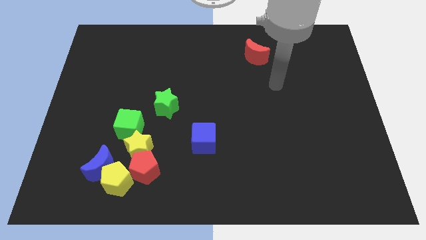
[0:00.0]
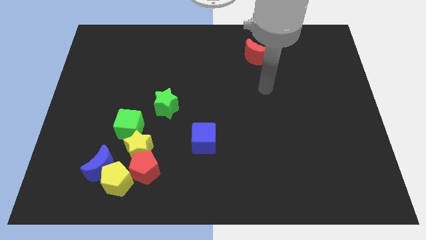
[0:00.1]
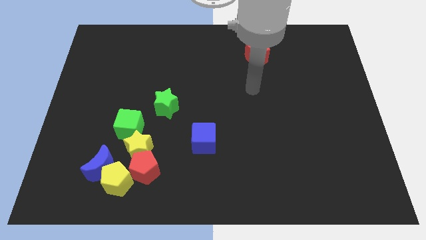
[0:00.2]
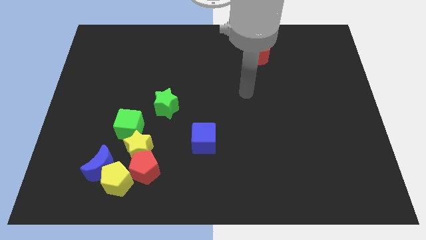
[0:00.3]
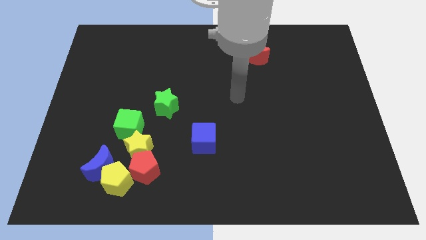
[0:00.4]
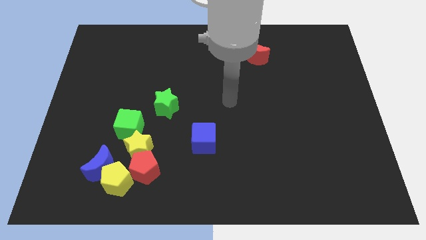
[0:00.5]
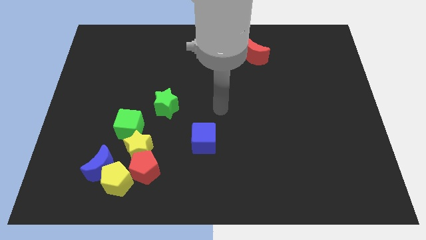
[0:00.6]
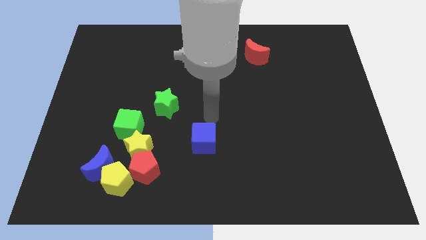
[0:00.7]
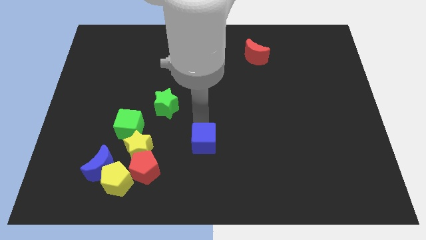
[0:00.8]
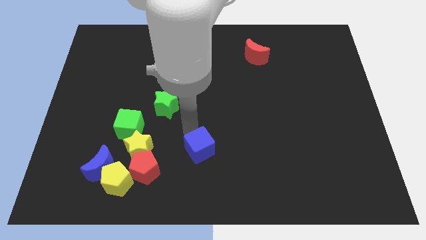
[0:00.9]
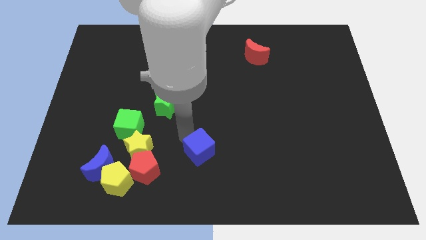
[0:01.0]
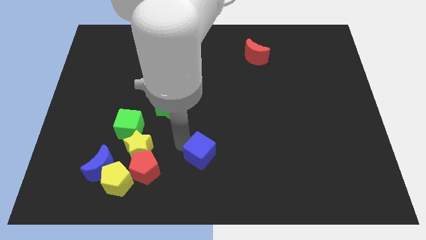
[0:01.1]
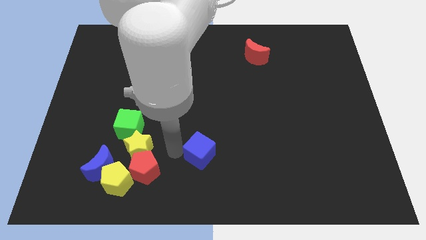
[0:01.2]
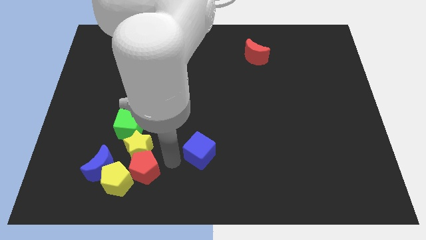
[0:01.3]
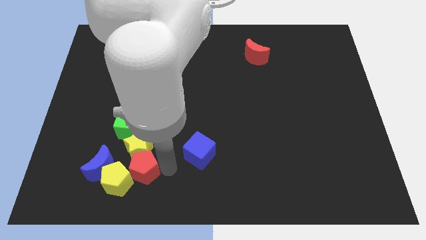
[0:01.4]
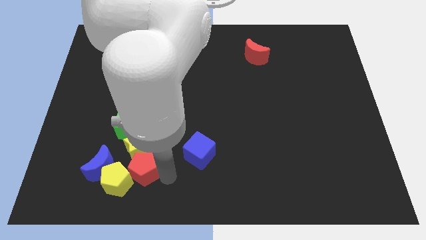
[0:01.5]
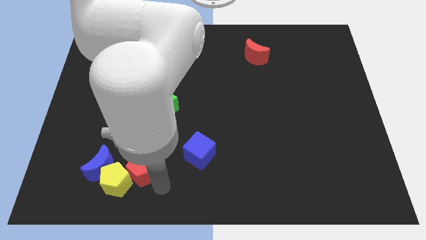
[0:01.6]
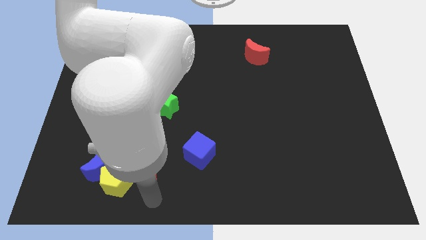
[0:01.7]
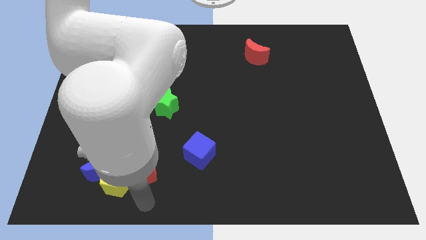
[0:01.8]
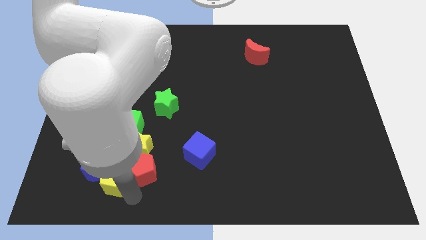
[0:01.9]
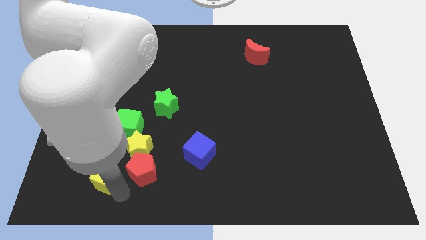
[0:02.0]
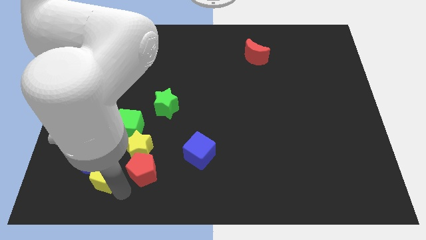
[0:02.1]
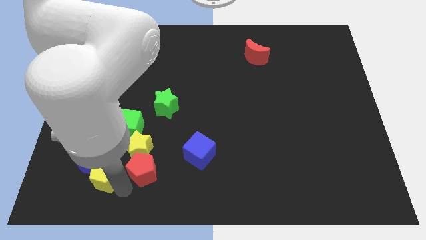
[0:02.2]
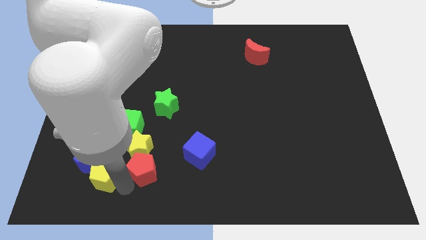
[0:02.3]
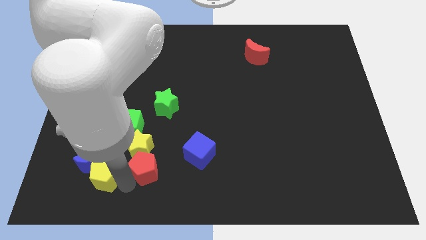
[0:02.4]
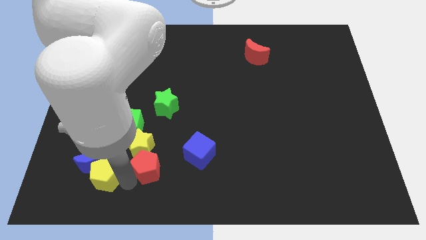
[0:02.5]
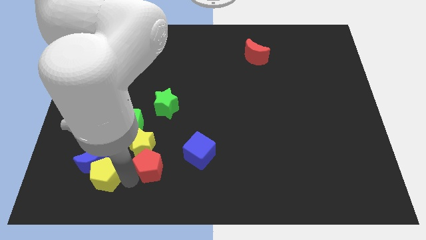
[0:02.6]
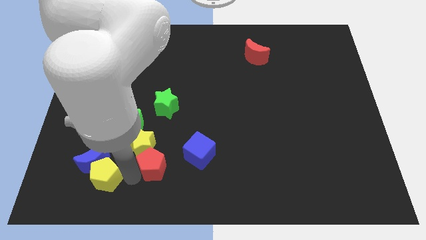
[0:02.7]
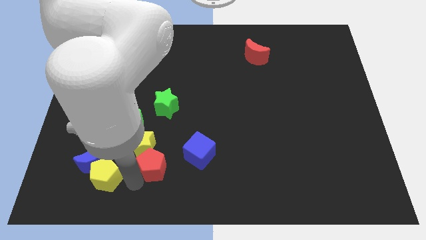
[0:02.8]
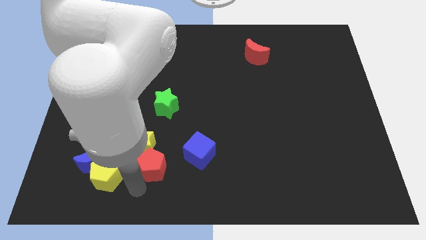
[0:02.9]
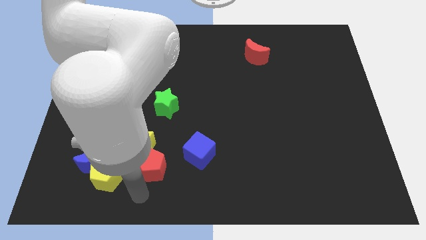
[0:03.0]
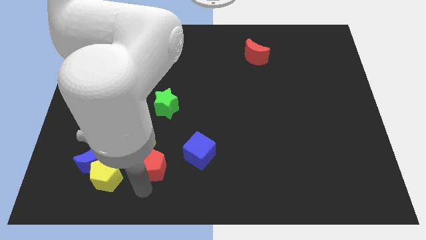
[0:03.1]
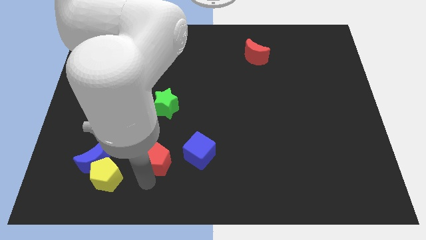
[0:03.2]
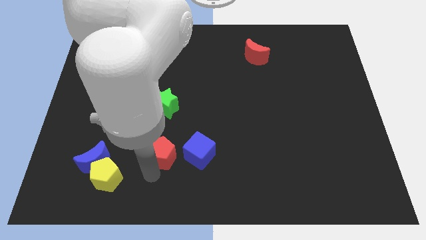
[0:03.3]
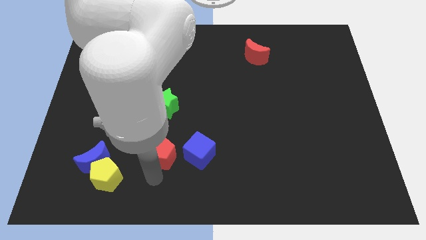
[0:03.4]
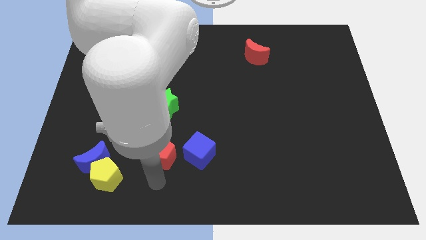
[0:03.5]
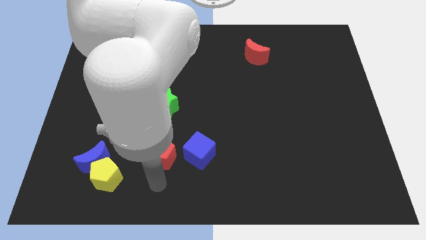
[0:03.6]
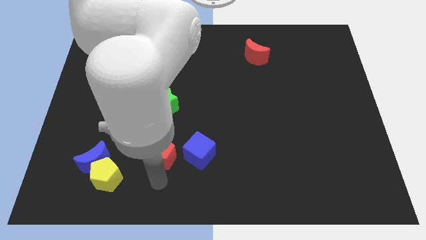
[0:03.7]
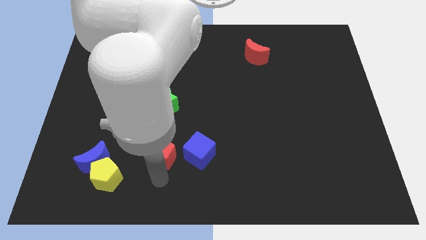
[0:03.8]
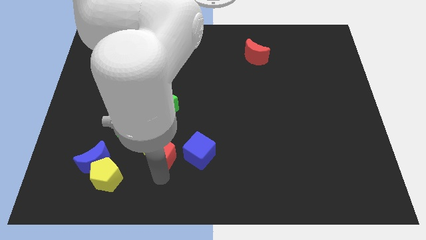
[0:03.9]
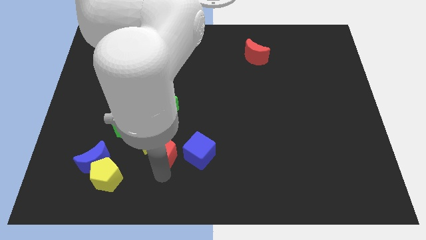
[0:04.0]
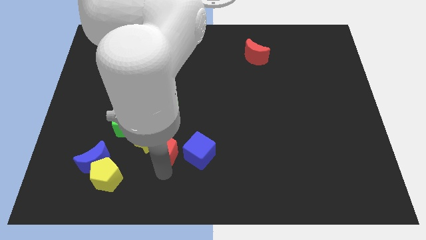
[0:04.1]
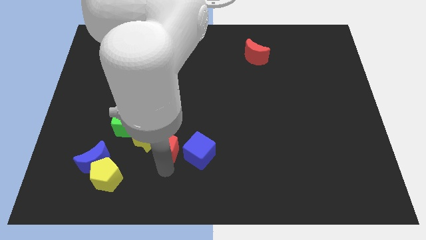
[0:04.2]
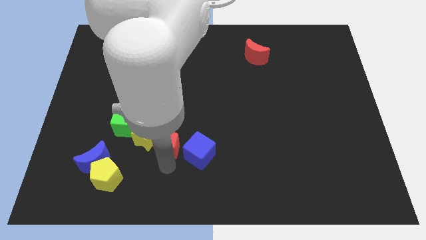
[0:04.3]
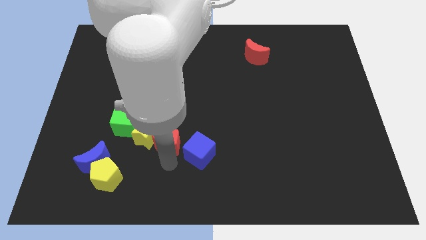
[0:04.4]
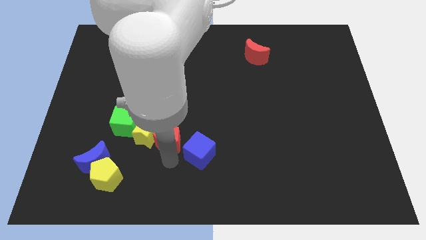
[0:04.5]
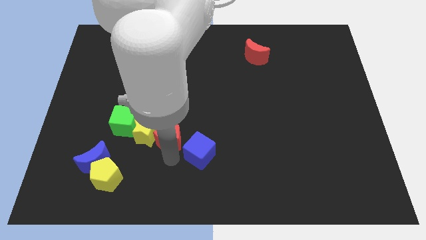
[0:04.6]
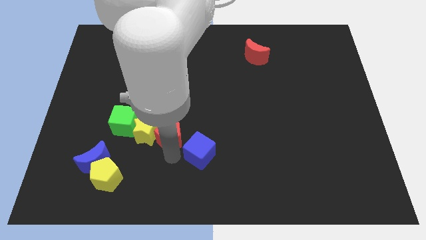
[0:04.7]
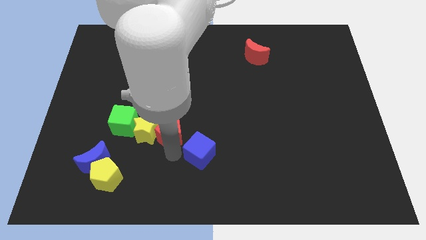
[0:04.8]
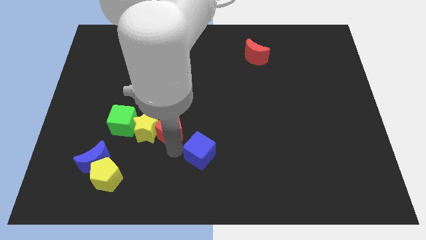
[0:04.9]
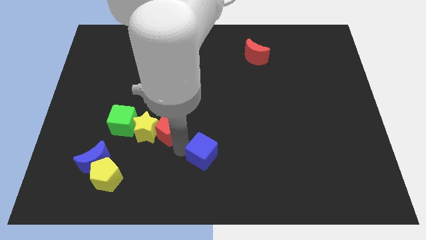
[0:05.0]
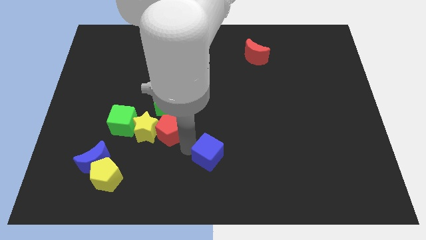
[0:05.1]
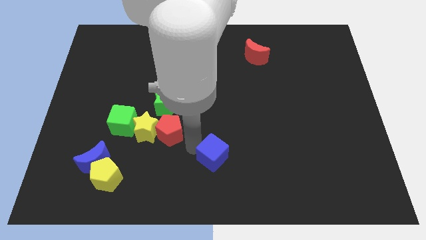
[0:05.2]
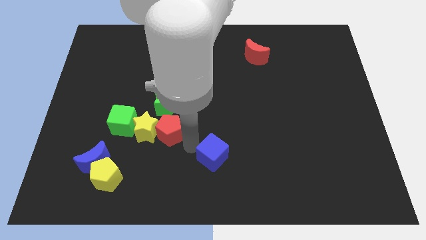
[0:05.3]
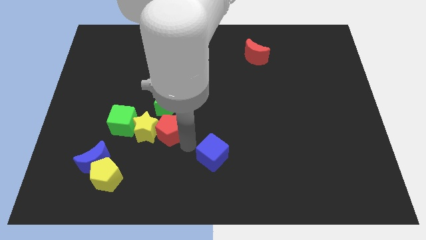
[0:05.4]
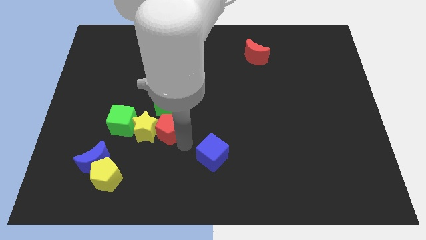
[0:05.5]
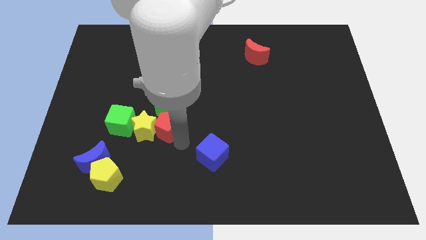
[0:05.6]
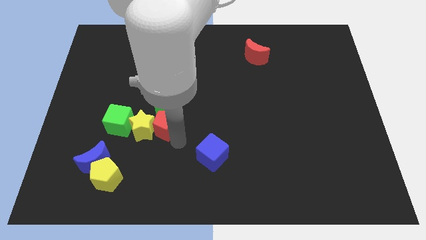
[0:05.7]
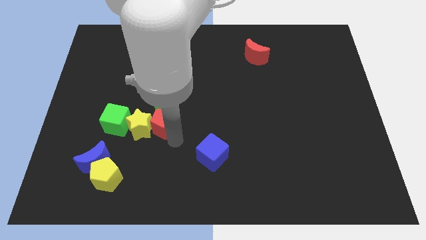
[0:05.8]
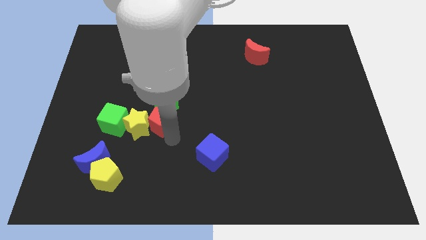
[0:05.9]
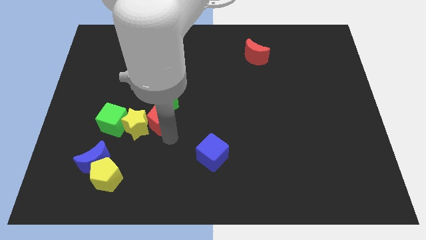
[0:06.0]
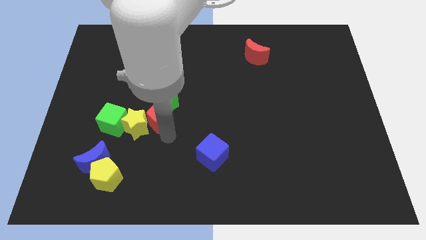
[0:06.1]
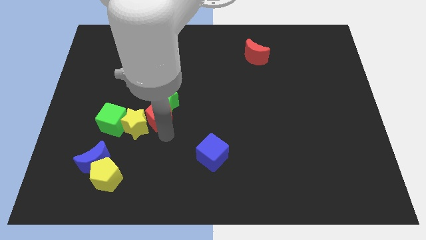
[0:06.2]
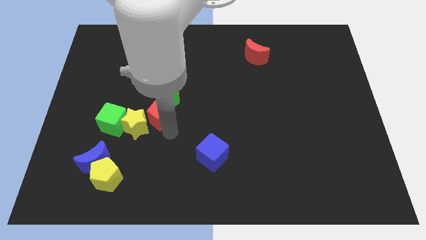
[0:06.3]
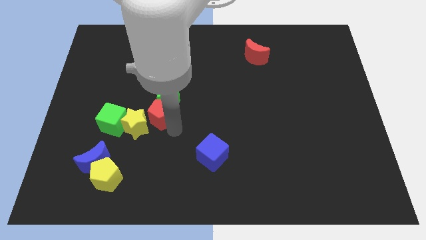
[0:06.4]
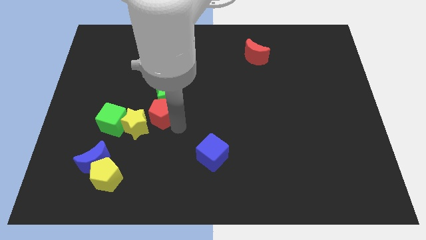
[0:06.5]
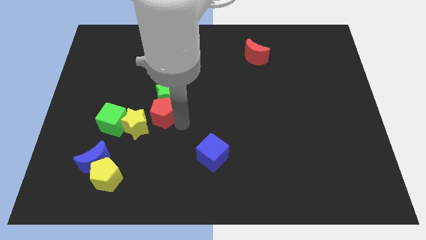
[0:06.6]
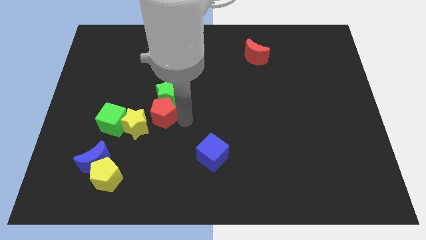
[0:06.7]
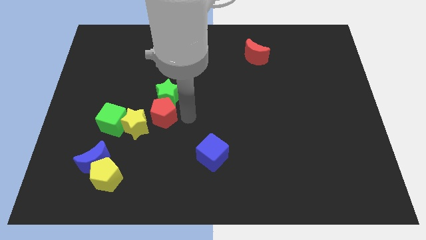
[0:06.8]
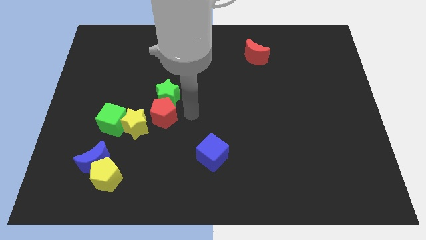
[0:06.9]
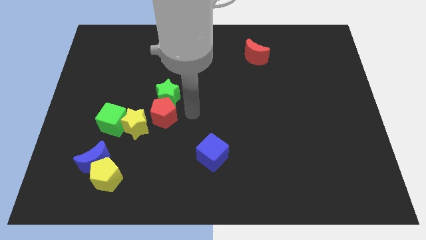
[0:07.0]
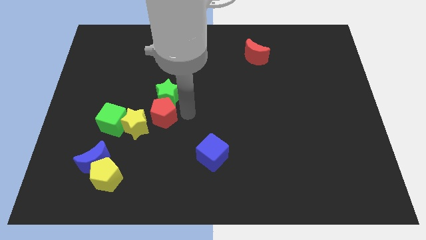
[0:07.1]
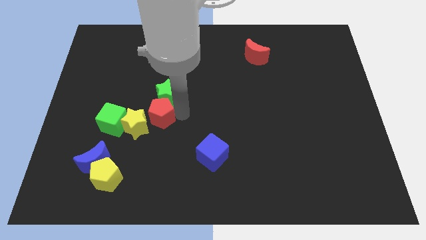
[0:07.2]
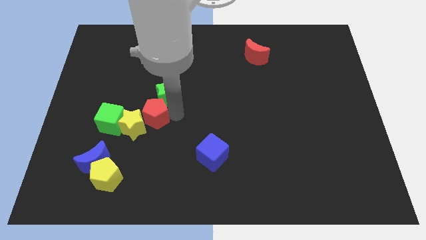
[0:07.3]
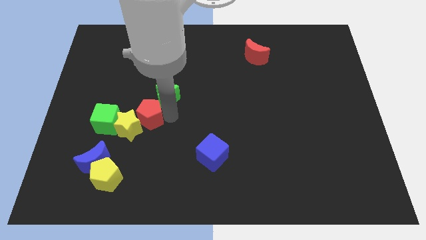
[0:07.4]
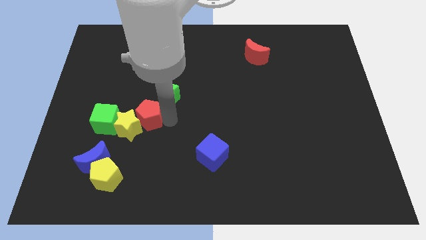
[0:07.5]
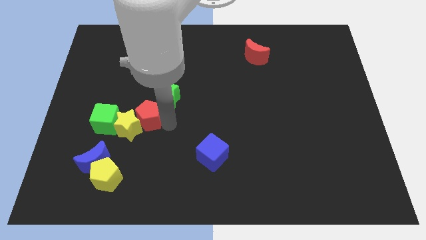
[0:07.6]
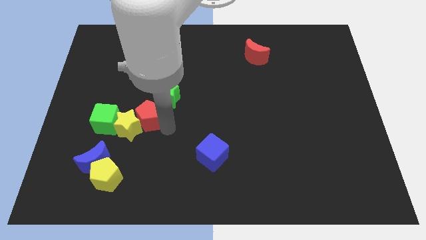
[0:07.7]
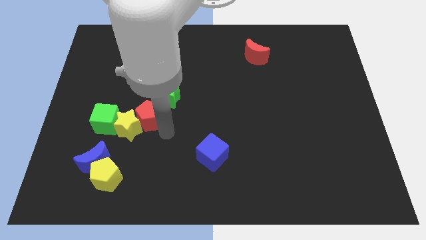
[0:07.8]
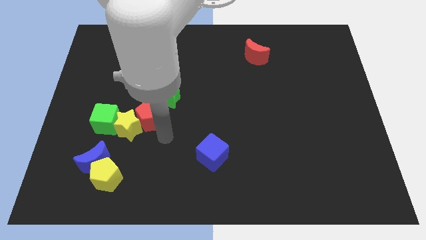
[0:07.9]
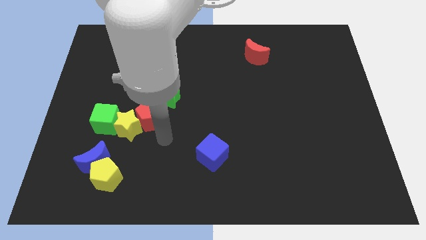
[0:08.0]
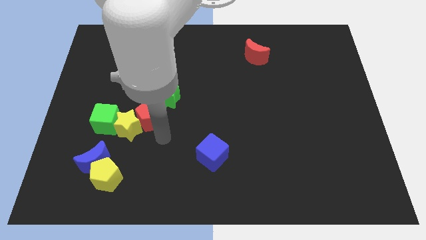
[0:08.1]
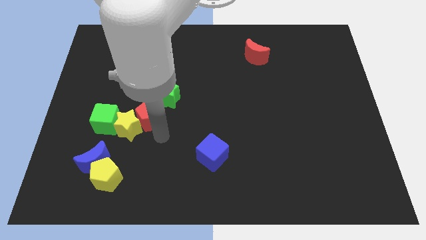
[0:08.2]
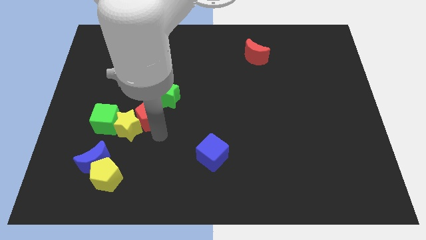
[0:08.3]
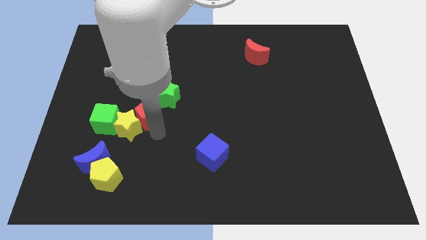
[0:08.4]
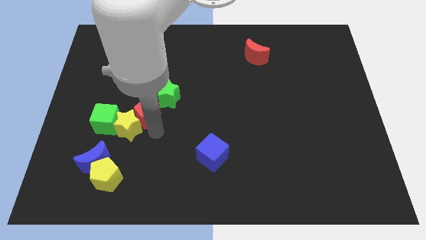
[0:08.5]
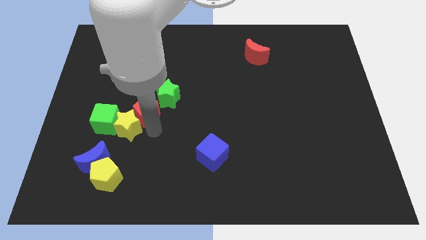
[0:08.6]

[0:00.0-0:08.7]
slightly slide the red pentagon upwards and to the left
